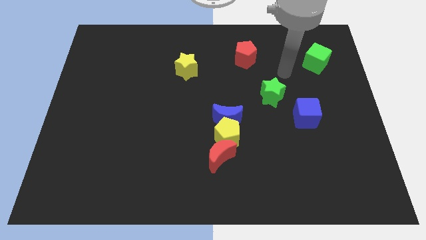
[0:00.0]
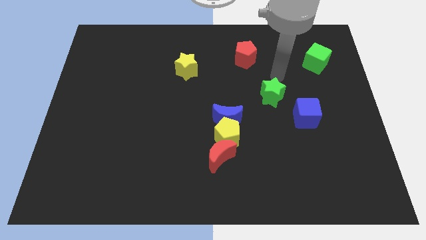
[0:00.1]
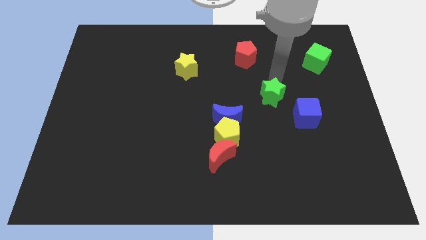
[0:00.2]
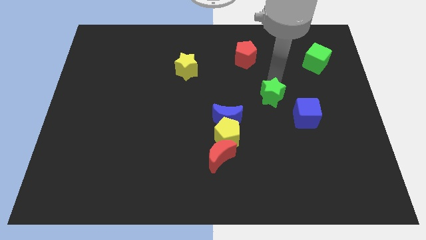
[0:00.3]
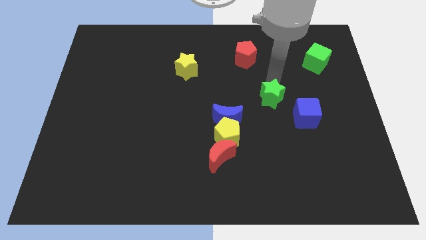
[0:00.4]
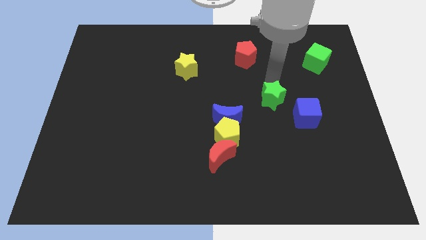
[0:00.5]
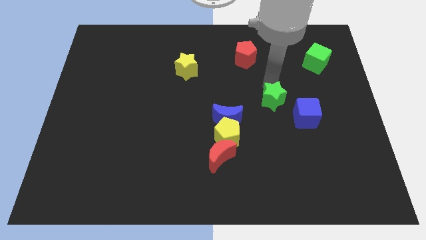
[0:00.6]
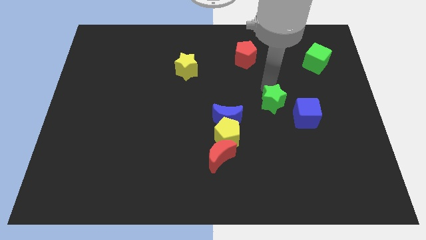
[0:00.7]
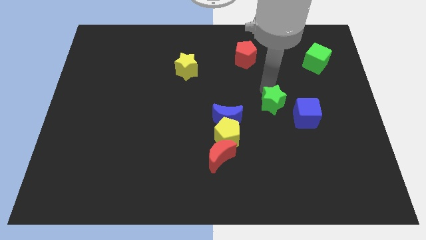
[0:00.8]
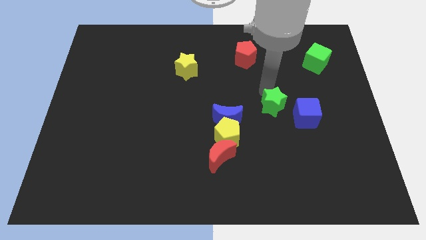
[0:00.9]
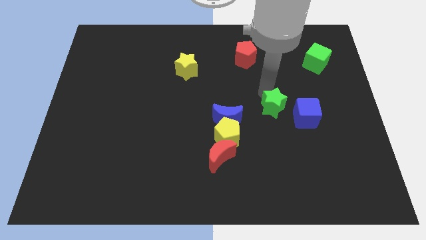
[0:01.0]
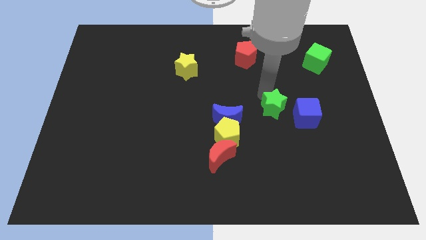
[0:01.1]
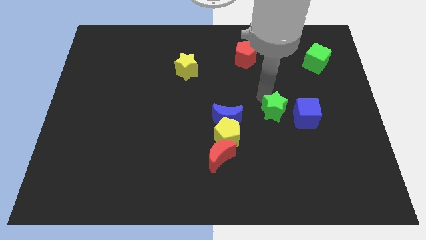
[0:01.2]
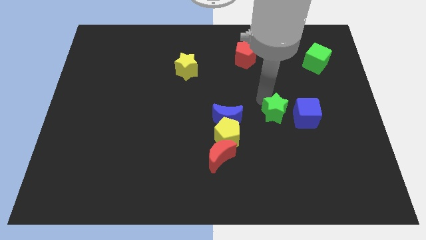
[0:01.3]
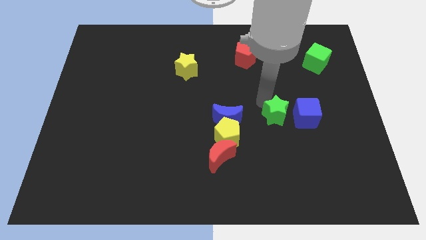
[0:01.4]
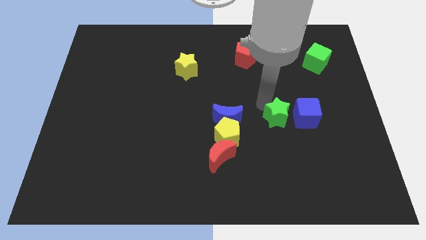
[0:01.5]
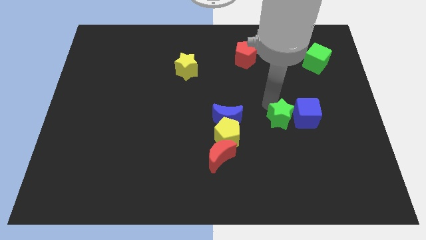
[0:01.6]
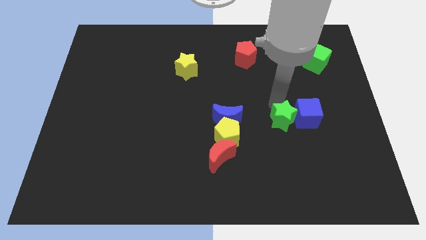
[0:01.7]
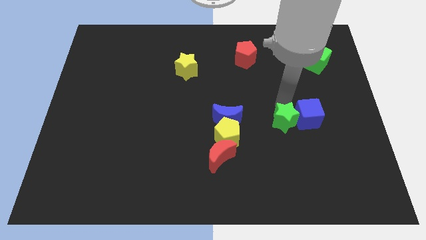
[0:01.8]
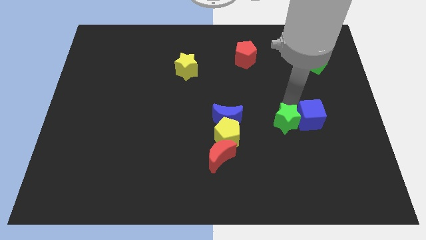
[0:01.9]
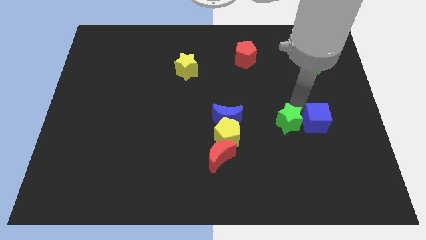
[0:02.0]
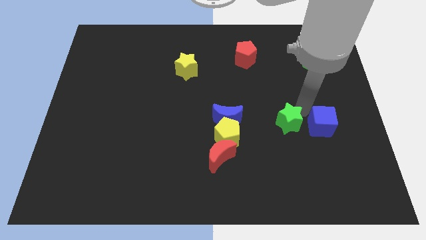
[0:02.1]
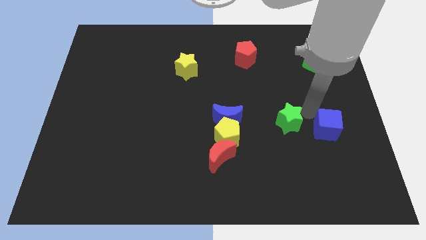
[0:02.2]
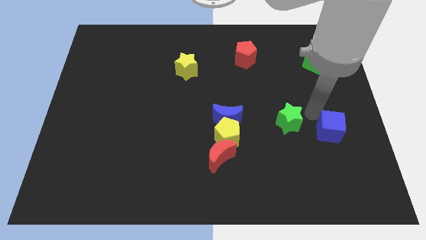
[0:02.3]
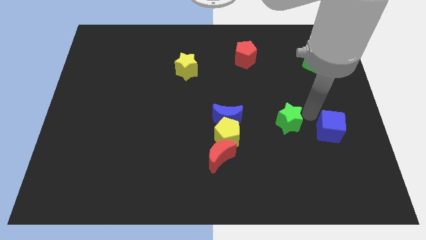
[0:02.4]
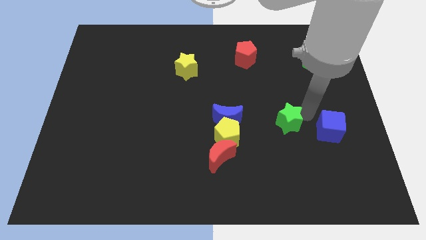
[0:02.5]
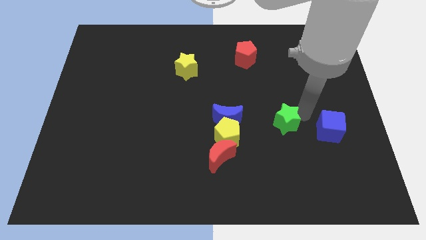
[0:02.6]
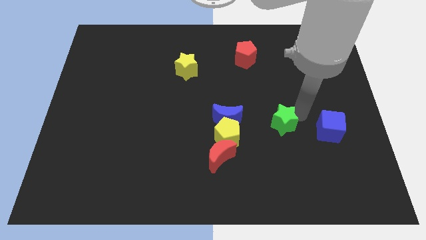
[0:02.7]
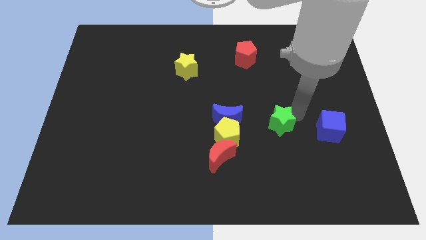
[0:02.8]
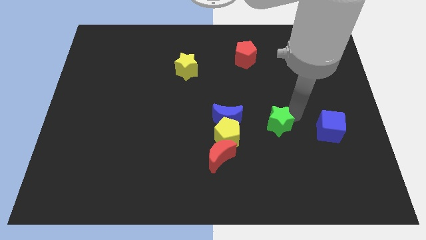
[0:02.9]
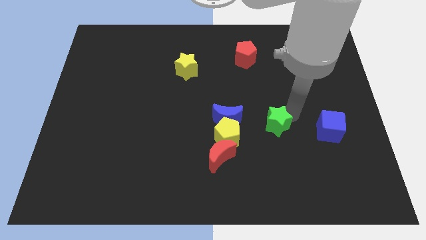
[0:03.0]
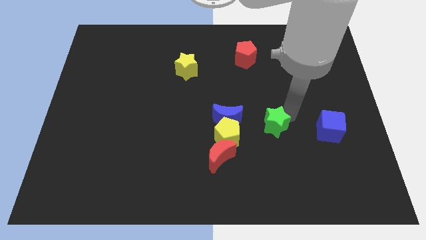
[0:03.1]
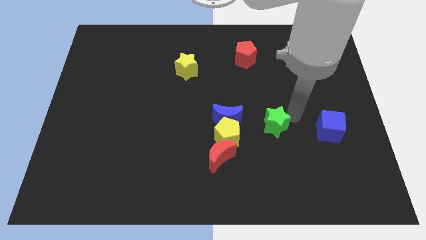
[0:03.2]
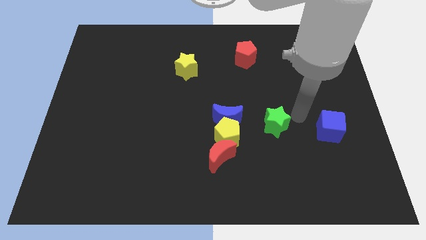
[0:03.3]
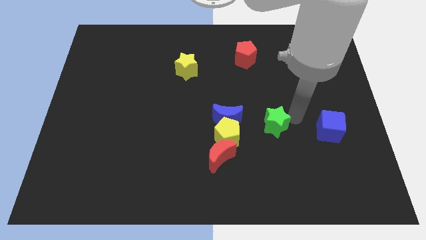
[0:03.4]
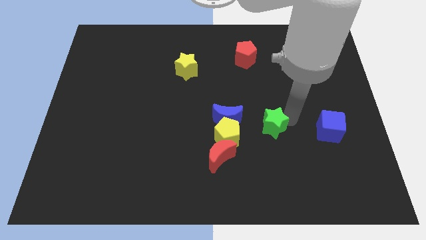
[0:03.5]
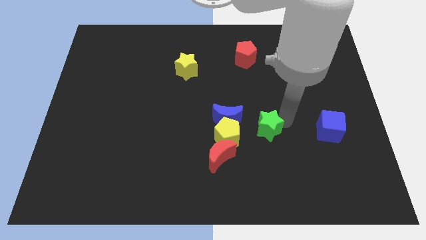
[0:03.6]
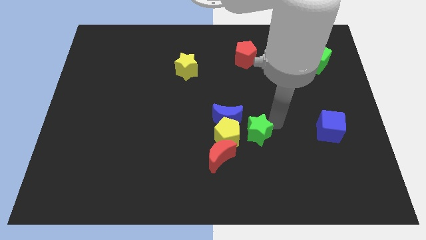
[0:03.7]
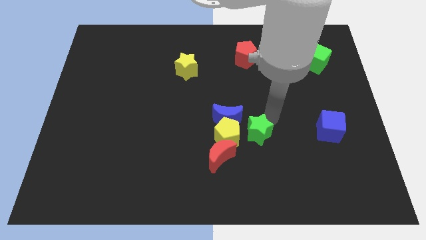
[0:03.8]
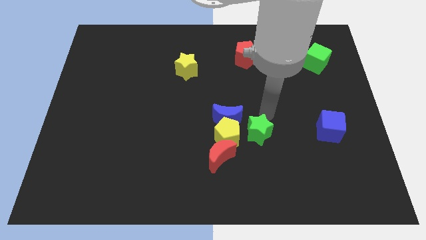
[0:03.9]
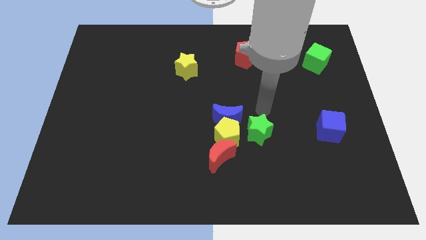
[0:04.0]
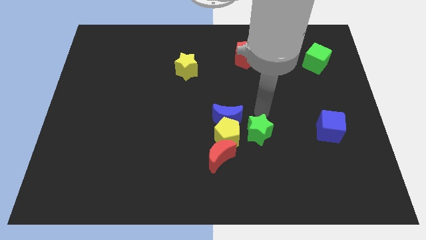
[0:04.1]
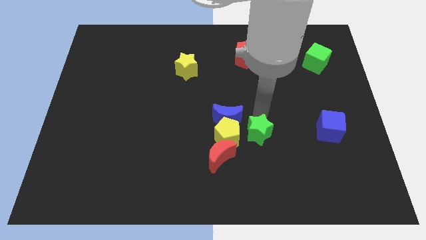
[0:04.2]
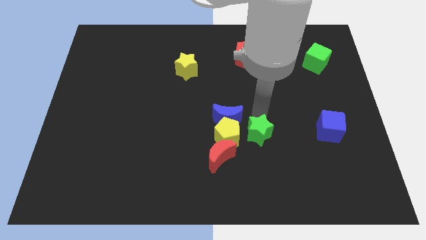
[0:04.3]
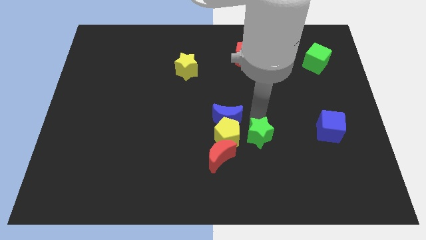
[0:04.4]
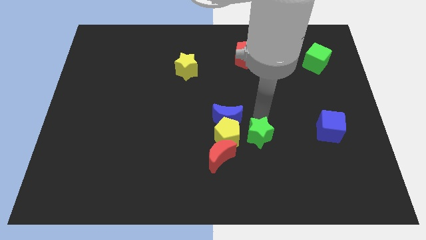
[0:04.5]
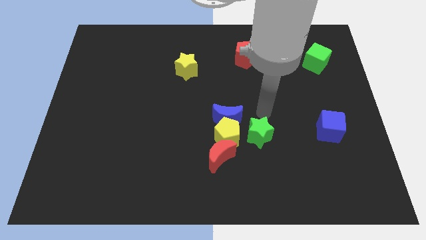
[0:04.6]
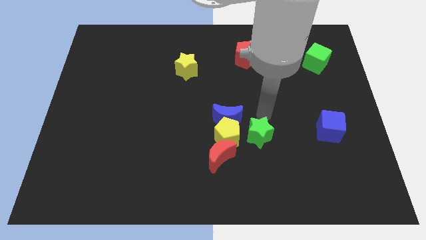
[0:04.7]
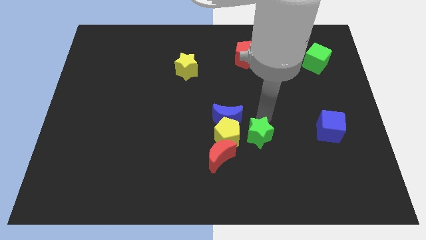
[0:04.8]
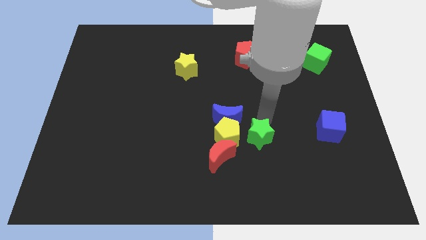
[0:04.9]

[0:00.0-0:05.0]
slide the green star diagonally down and to the right of the yellow pentagon

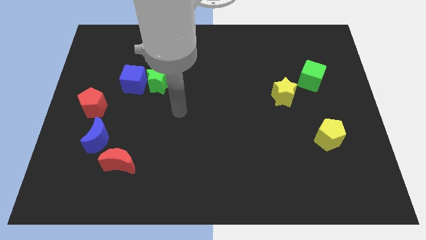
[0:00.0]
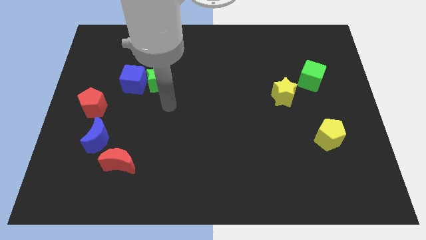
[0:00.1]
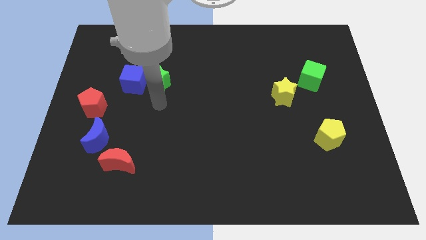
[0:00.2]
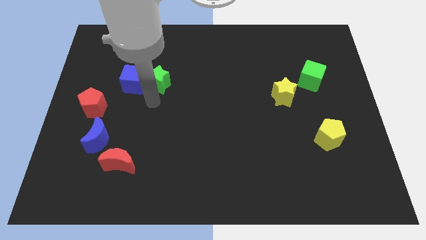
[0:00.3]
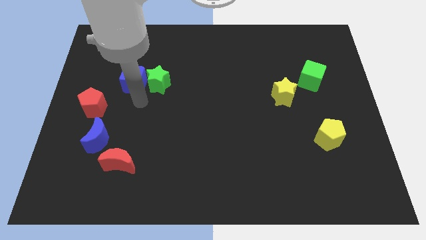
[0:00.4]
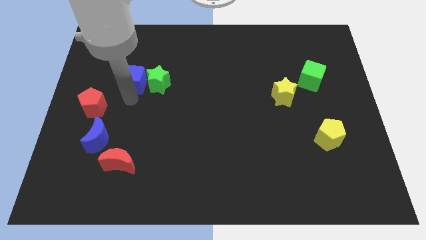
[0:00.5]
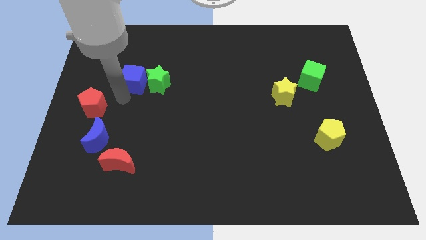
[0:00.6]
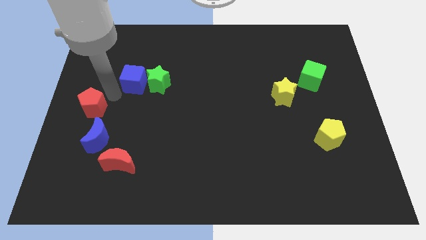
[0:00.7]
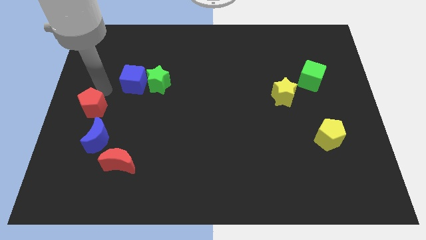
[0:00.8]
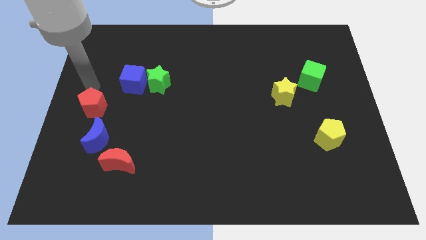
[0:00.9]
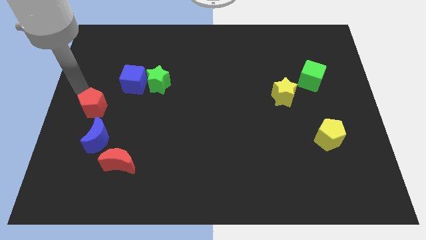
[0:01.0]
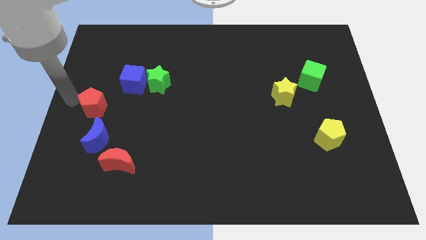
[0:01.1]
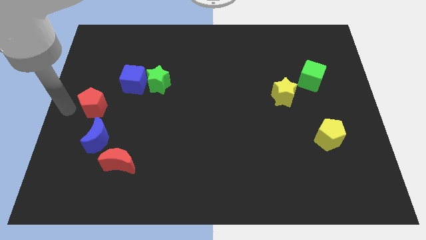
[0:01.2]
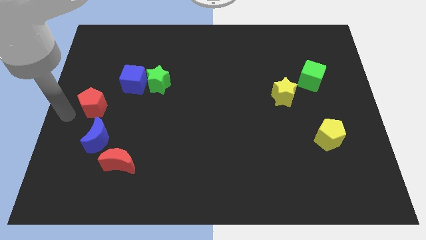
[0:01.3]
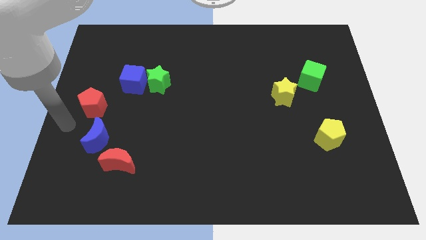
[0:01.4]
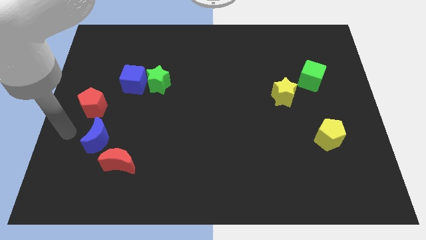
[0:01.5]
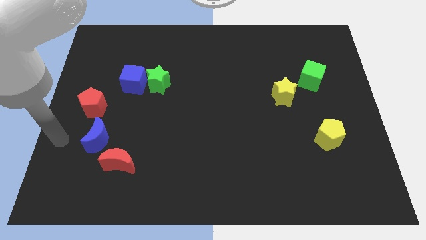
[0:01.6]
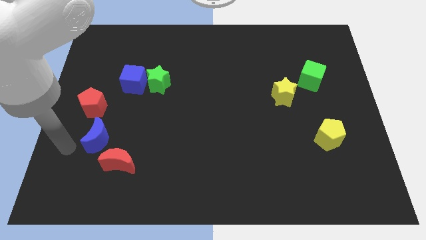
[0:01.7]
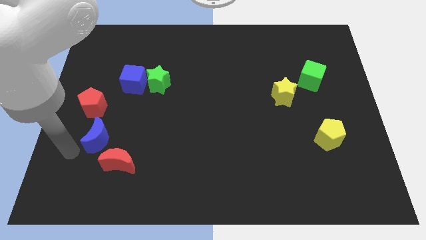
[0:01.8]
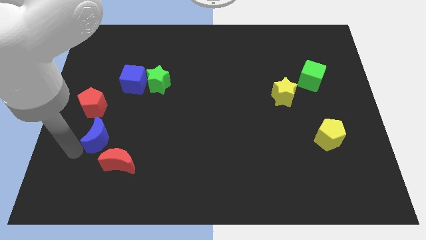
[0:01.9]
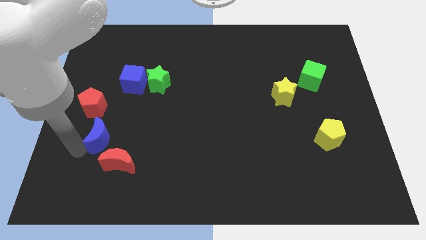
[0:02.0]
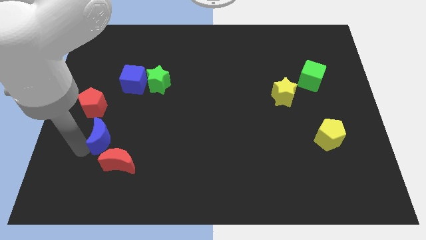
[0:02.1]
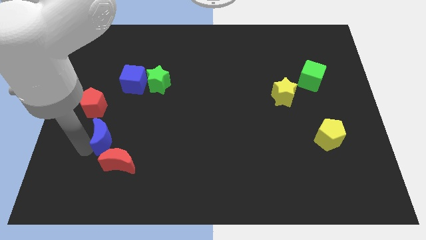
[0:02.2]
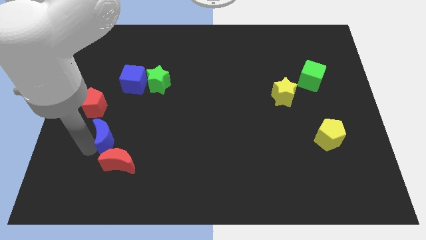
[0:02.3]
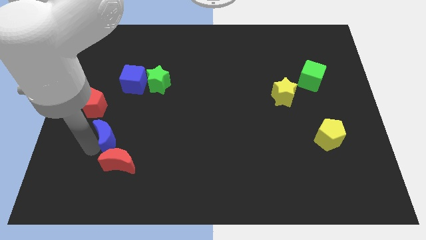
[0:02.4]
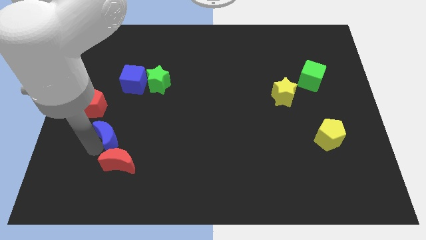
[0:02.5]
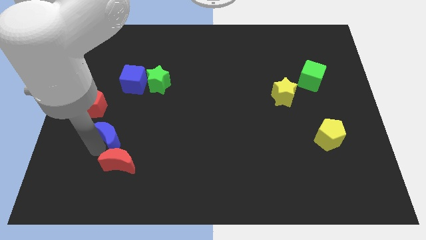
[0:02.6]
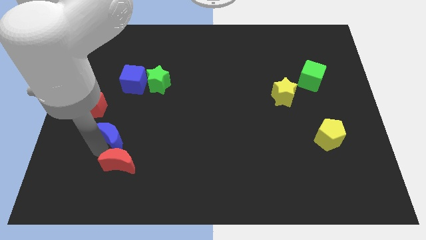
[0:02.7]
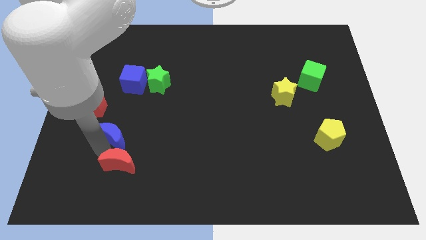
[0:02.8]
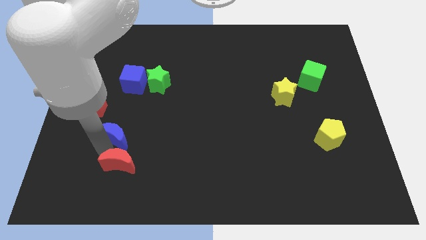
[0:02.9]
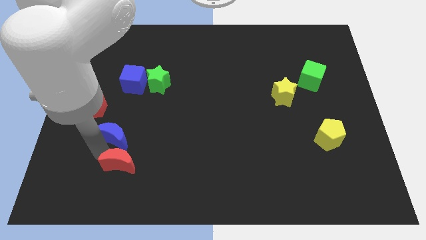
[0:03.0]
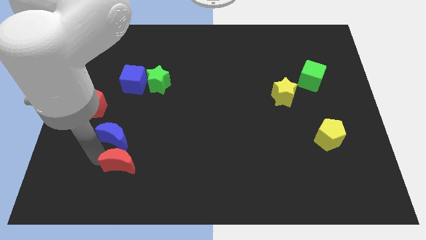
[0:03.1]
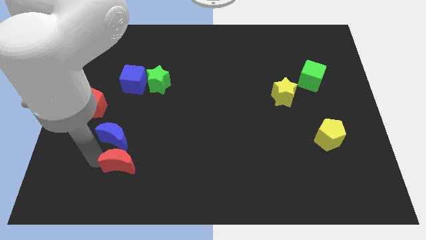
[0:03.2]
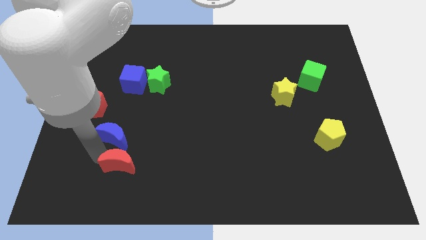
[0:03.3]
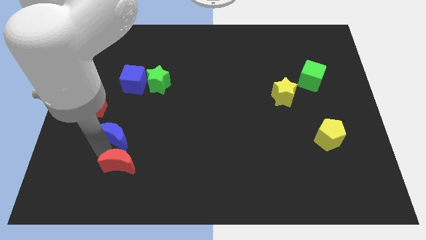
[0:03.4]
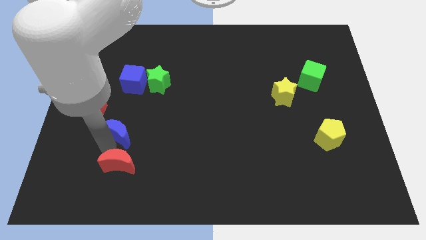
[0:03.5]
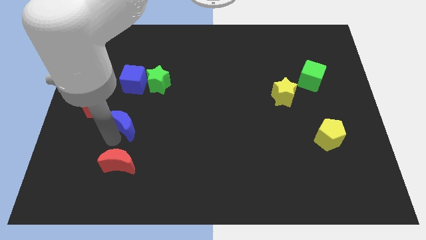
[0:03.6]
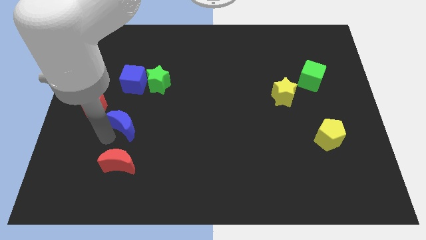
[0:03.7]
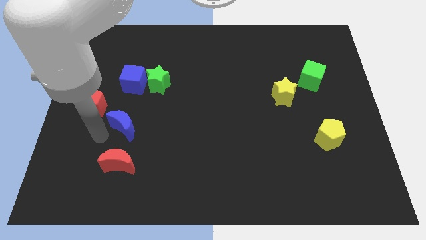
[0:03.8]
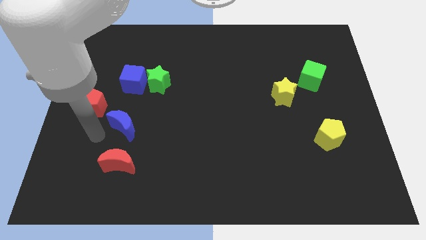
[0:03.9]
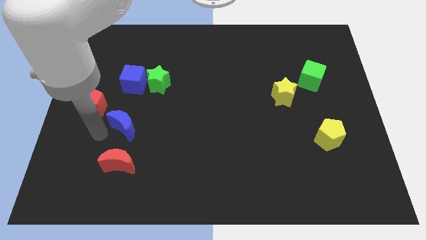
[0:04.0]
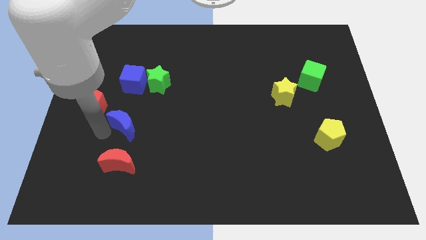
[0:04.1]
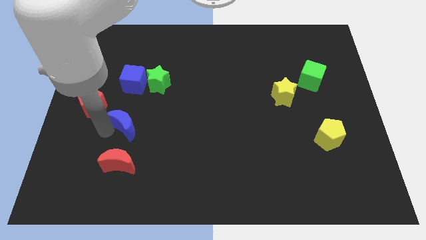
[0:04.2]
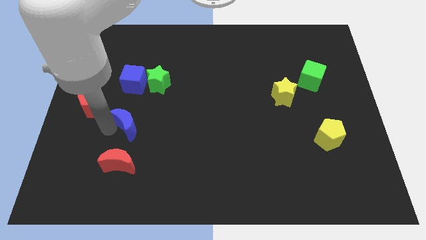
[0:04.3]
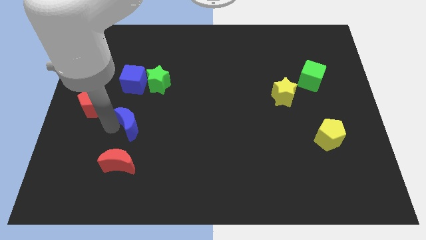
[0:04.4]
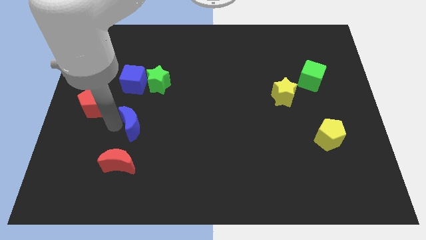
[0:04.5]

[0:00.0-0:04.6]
put the blue moon to the bottom side of the green star
